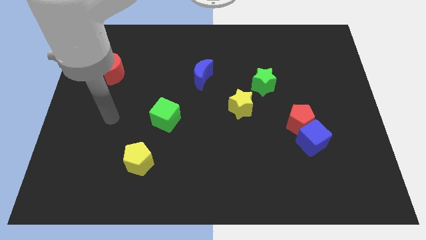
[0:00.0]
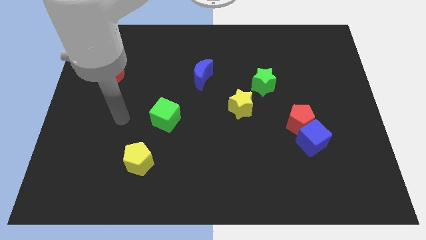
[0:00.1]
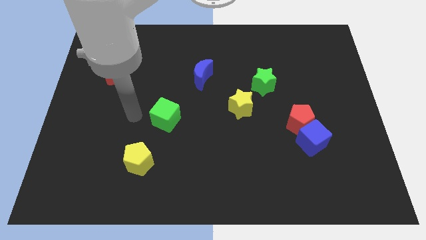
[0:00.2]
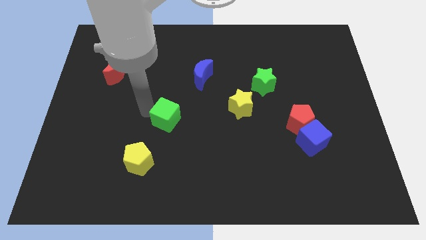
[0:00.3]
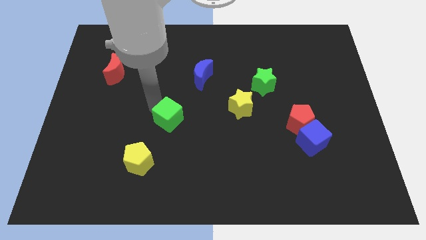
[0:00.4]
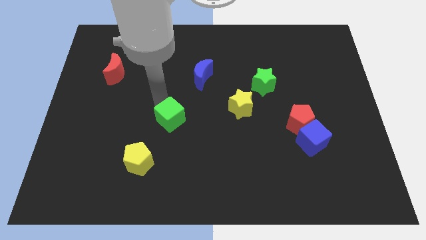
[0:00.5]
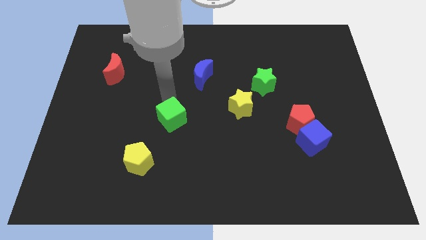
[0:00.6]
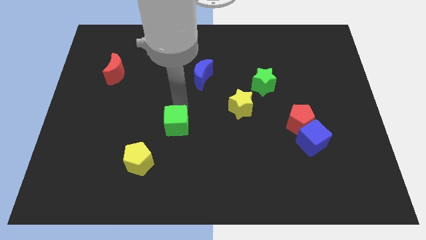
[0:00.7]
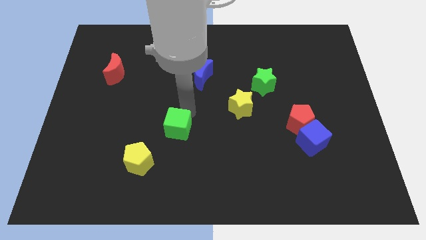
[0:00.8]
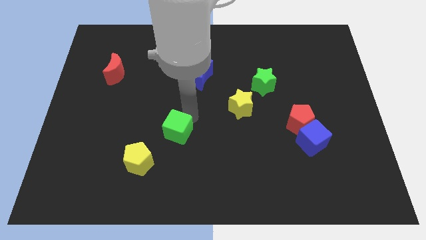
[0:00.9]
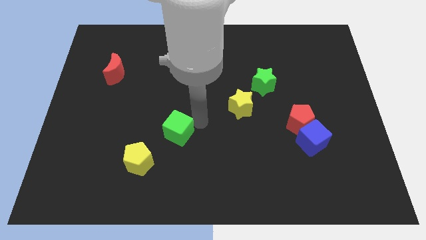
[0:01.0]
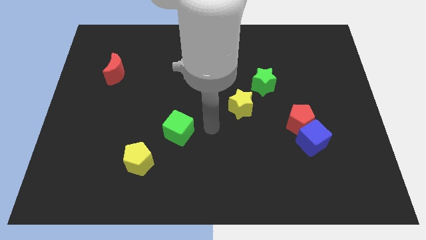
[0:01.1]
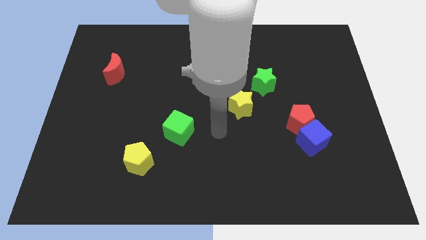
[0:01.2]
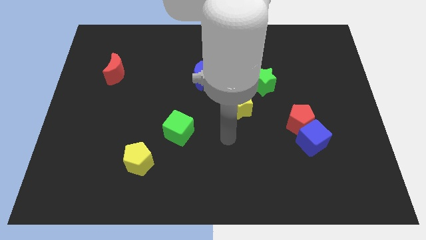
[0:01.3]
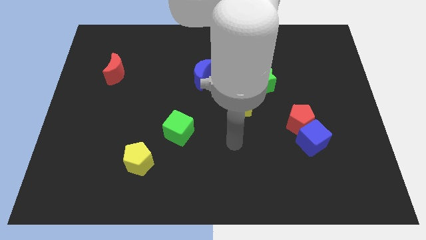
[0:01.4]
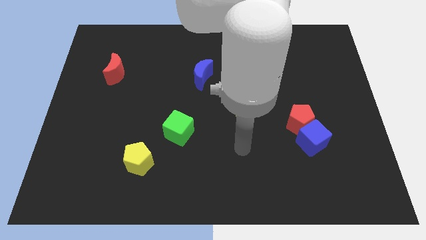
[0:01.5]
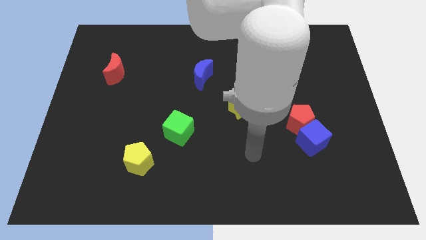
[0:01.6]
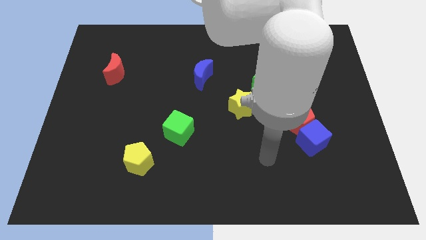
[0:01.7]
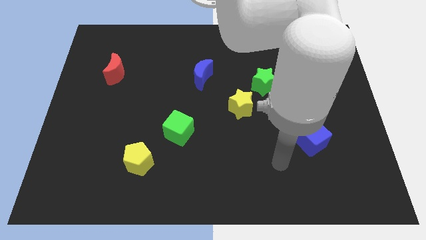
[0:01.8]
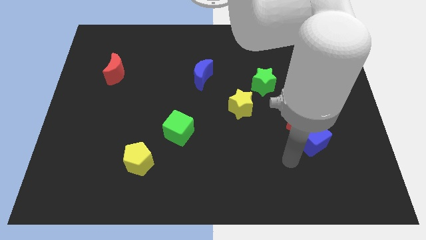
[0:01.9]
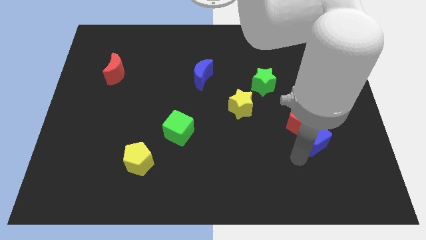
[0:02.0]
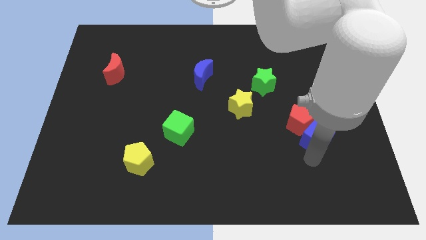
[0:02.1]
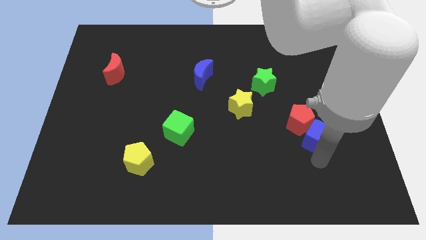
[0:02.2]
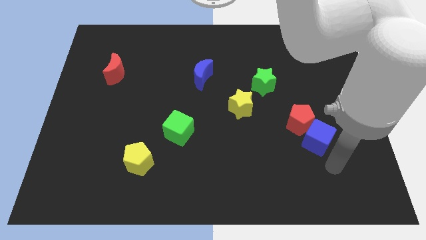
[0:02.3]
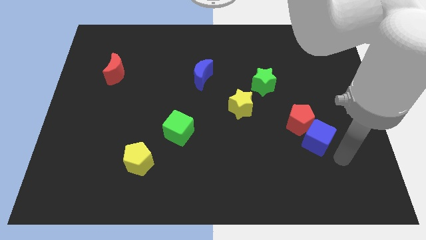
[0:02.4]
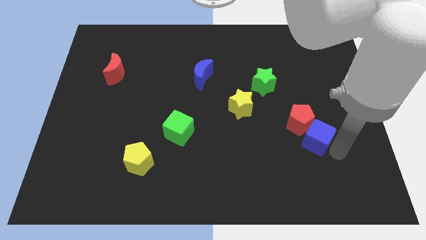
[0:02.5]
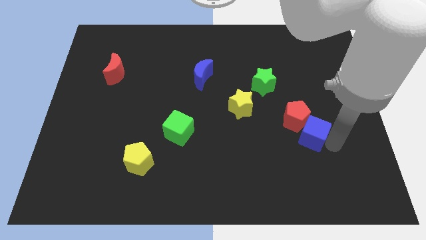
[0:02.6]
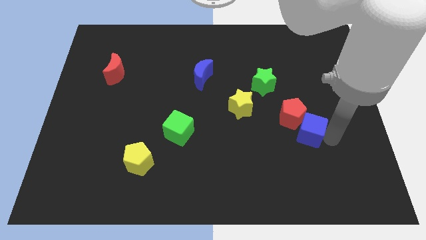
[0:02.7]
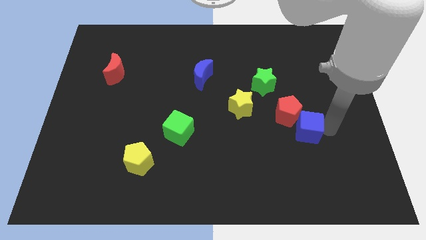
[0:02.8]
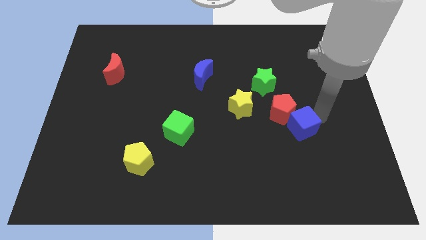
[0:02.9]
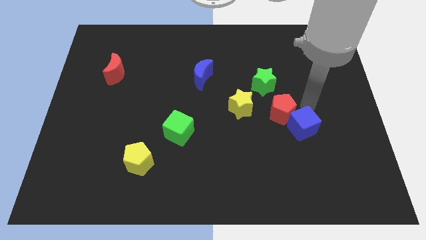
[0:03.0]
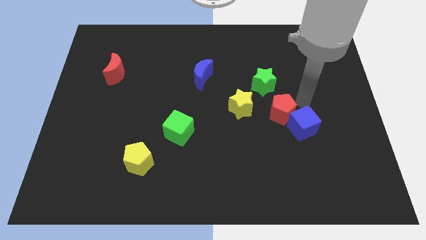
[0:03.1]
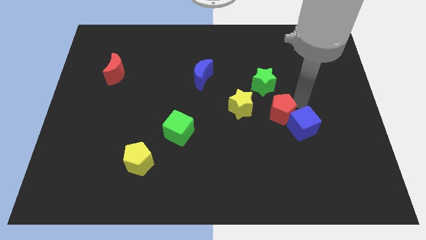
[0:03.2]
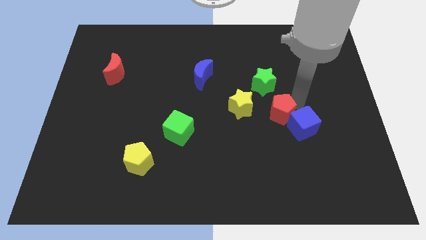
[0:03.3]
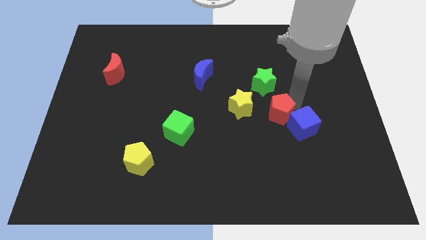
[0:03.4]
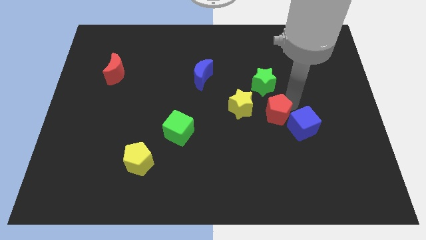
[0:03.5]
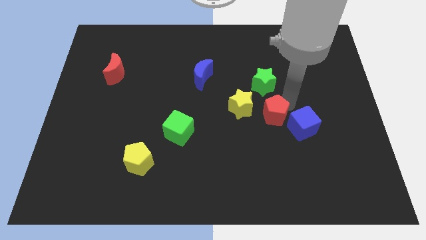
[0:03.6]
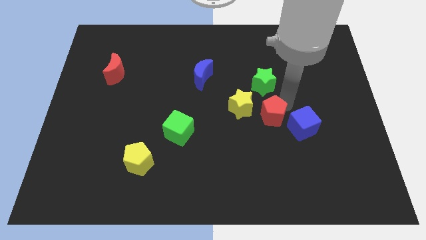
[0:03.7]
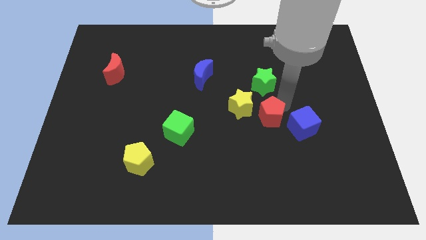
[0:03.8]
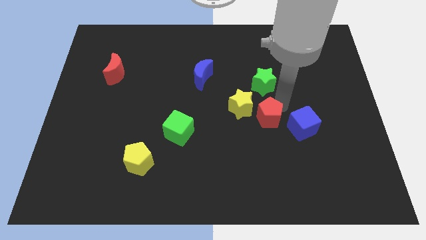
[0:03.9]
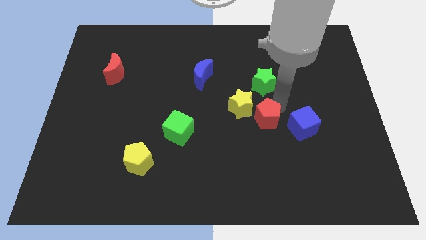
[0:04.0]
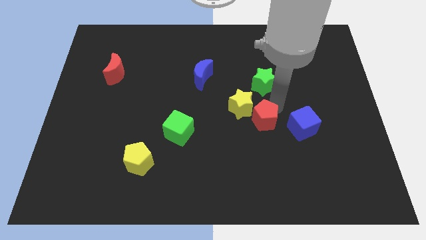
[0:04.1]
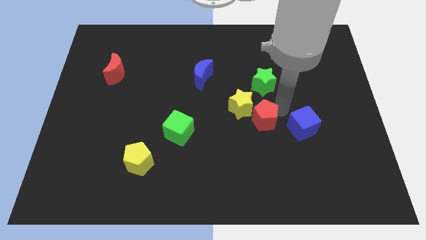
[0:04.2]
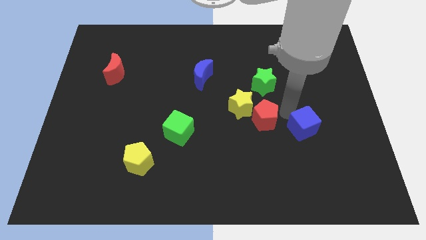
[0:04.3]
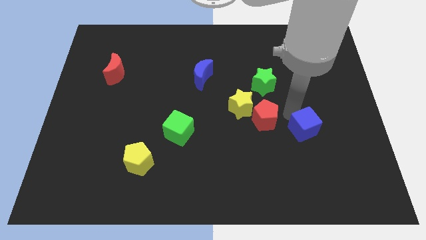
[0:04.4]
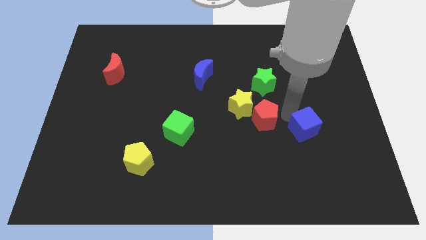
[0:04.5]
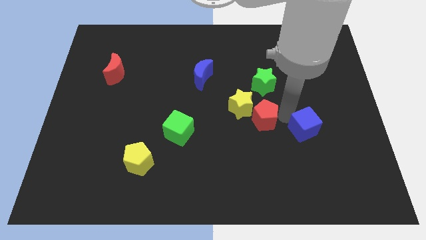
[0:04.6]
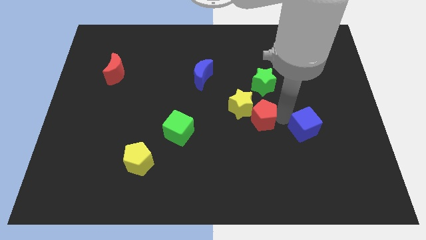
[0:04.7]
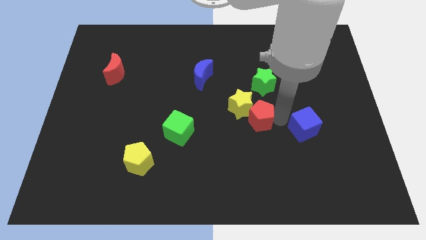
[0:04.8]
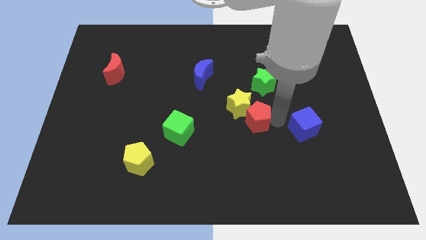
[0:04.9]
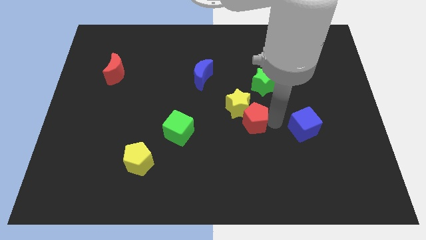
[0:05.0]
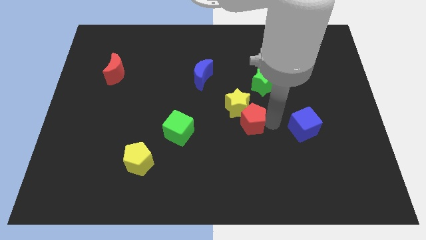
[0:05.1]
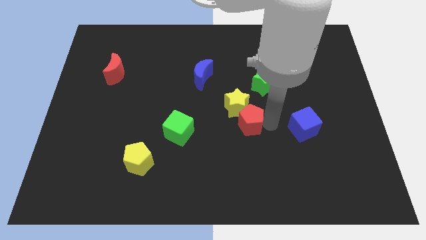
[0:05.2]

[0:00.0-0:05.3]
slide the red pentagon to the right side of the green cube

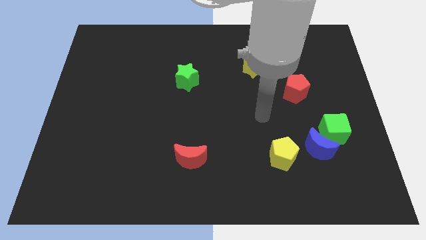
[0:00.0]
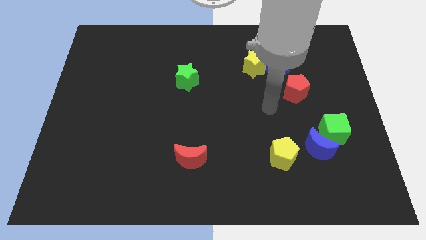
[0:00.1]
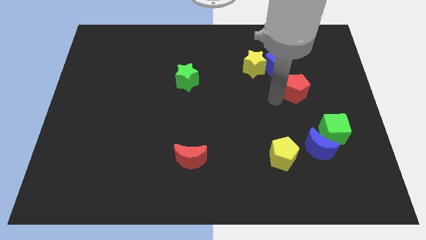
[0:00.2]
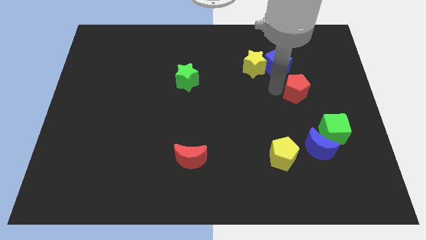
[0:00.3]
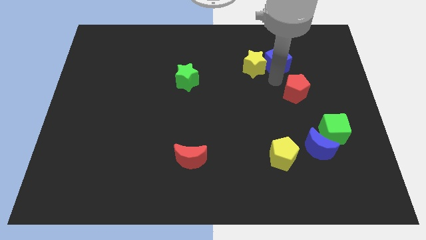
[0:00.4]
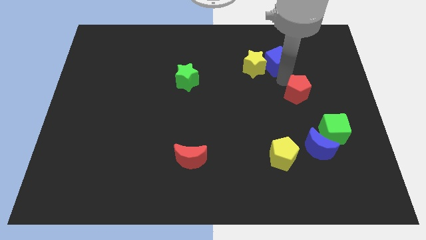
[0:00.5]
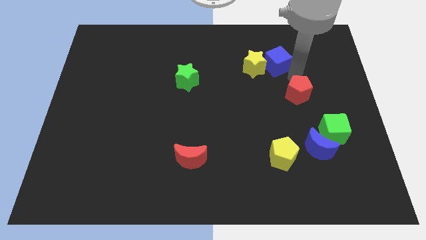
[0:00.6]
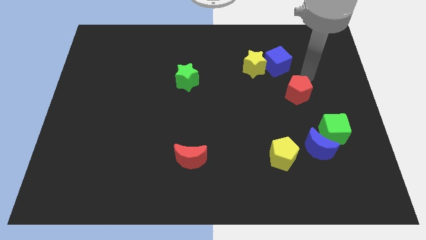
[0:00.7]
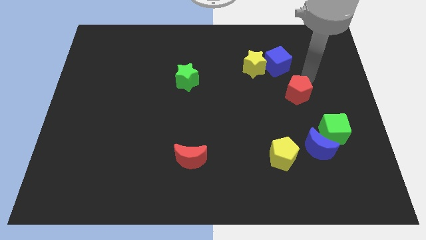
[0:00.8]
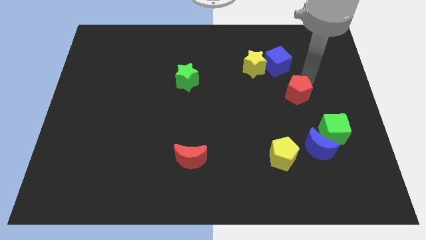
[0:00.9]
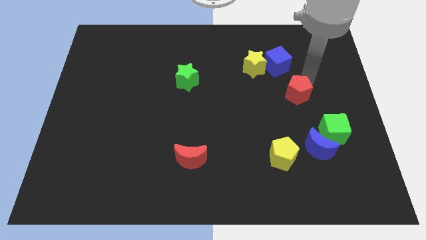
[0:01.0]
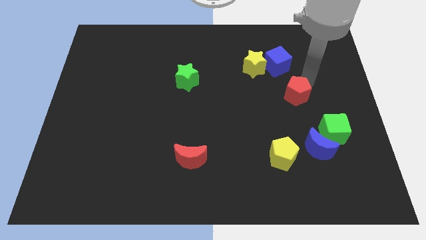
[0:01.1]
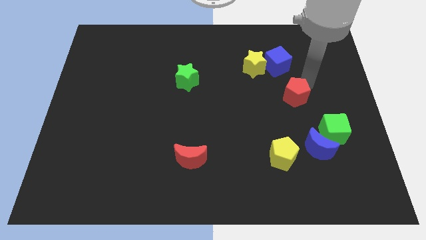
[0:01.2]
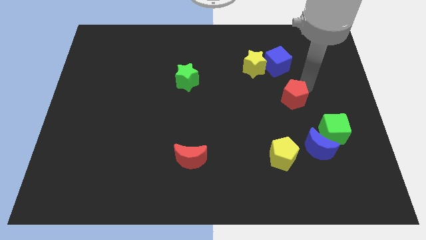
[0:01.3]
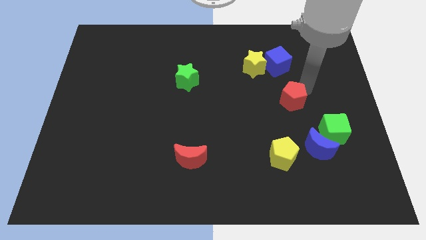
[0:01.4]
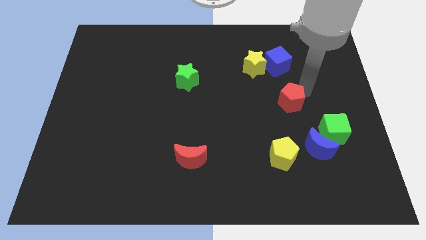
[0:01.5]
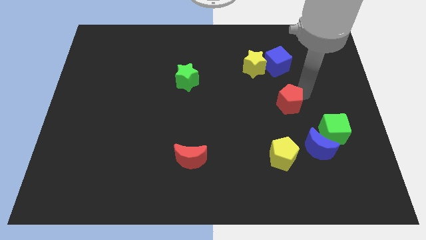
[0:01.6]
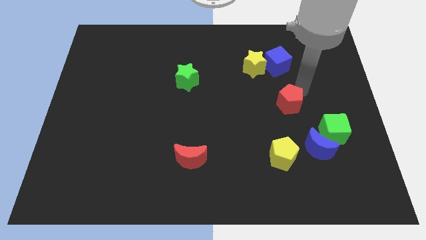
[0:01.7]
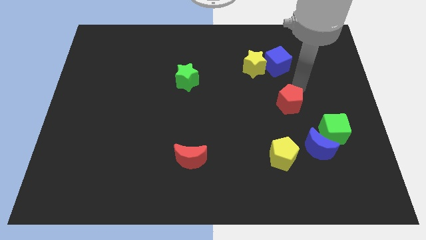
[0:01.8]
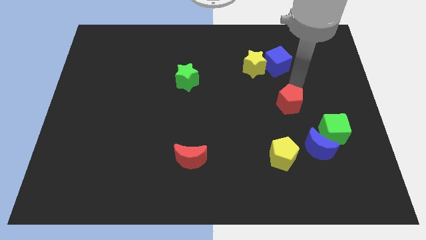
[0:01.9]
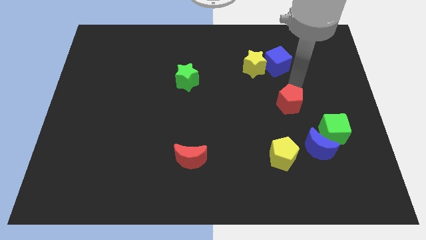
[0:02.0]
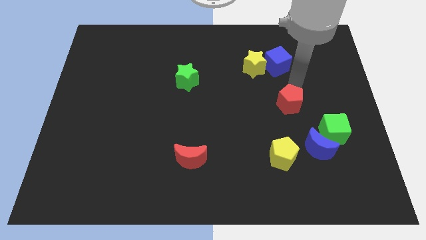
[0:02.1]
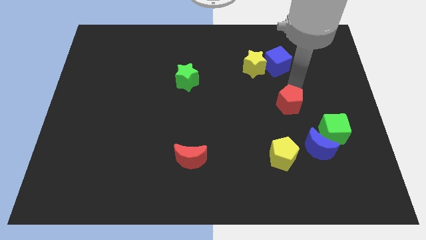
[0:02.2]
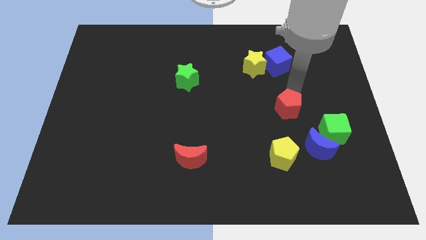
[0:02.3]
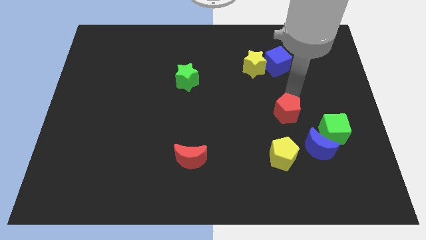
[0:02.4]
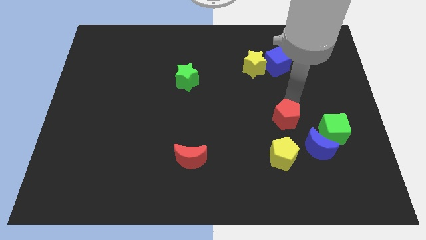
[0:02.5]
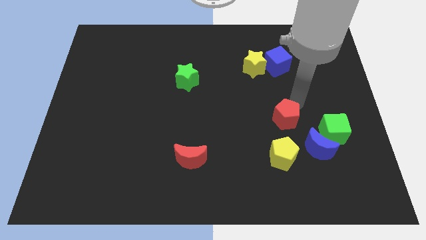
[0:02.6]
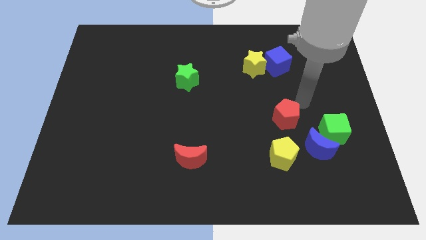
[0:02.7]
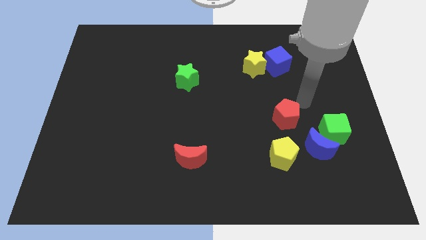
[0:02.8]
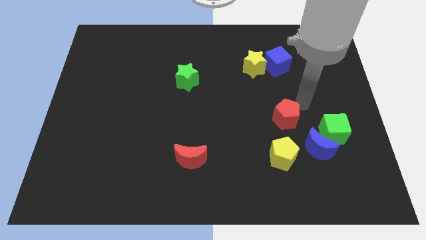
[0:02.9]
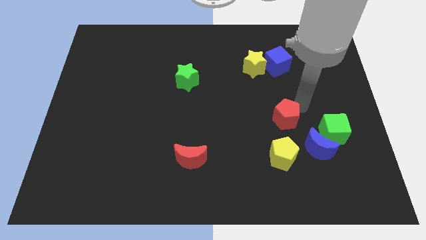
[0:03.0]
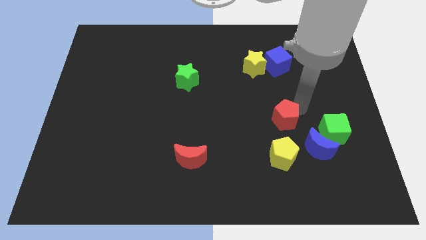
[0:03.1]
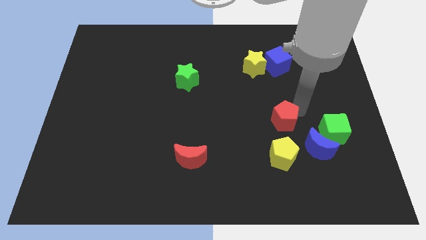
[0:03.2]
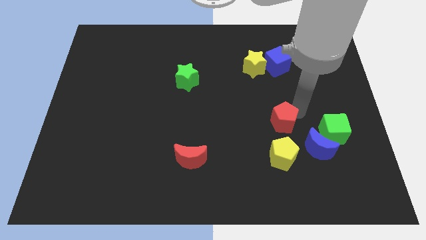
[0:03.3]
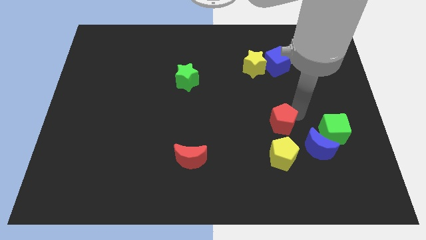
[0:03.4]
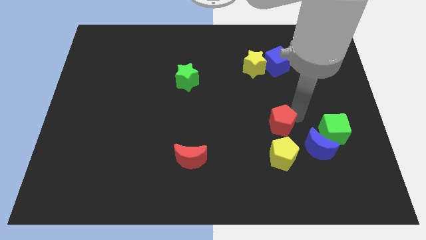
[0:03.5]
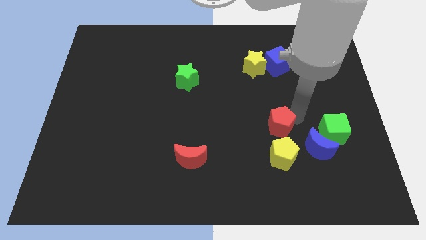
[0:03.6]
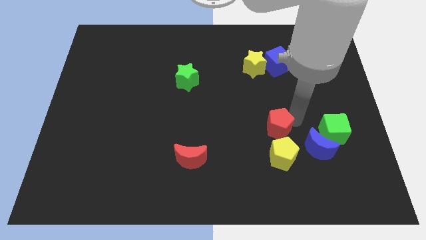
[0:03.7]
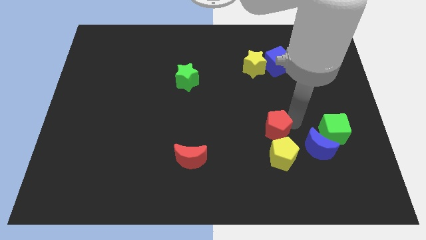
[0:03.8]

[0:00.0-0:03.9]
move the red pentagon to the top left of the yellow pentagon
